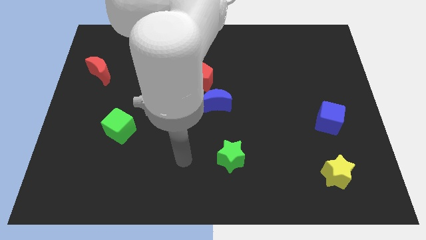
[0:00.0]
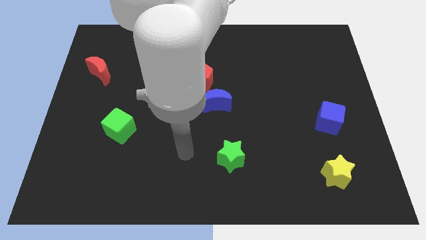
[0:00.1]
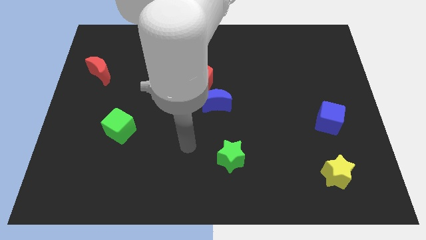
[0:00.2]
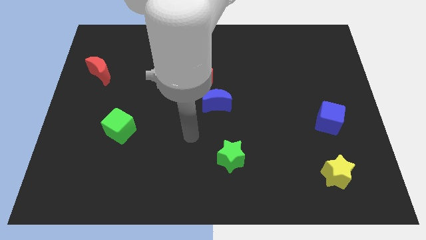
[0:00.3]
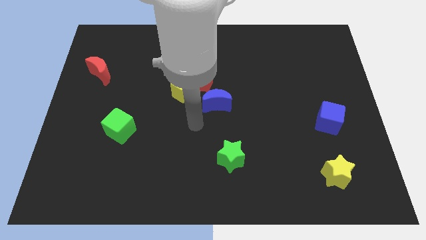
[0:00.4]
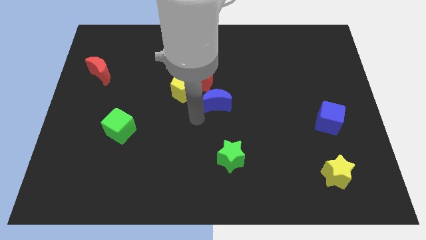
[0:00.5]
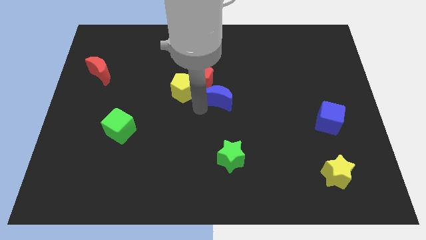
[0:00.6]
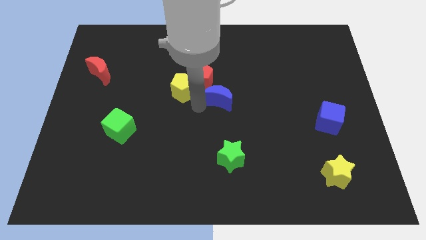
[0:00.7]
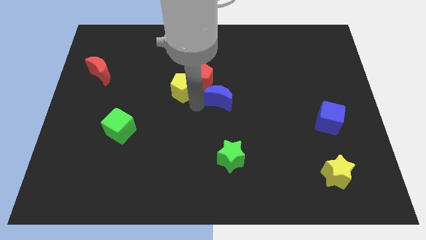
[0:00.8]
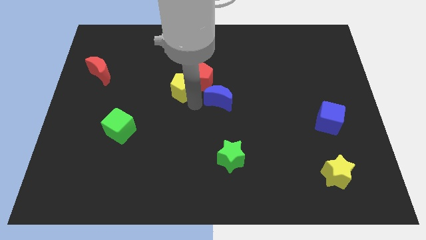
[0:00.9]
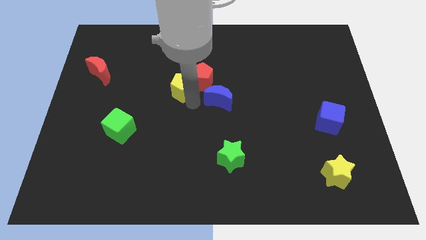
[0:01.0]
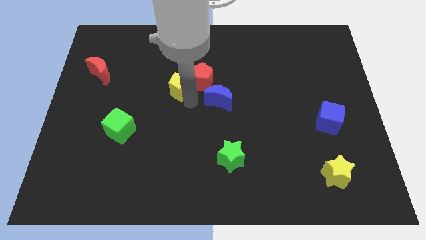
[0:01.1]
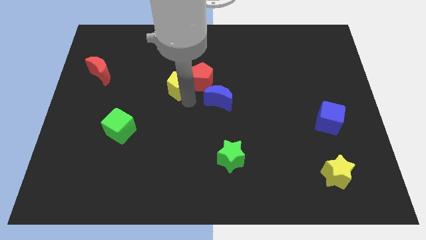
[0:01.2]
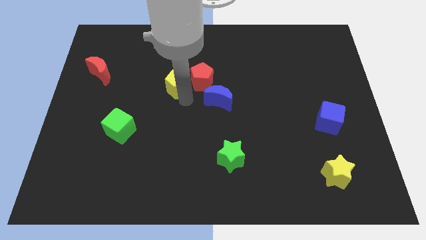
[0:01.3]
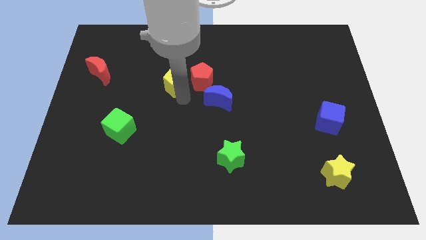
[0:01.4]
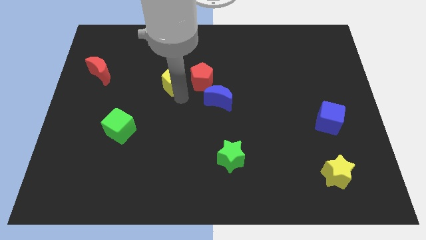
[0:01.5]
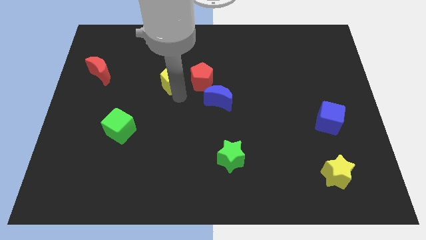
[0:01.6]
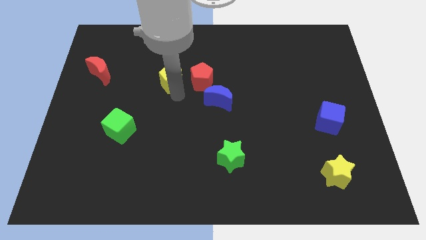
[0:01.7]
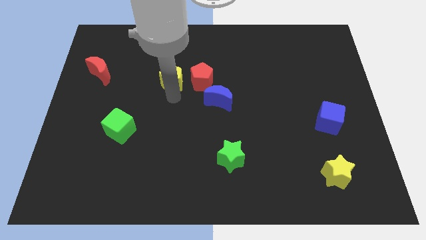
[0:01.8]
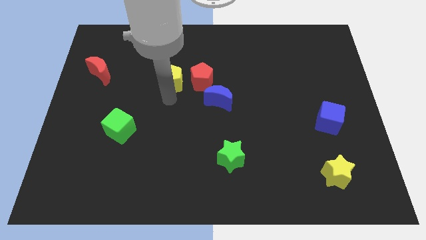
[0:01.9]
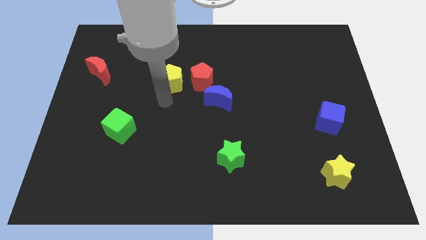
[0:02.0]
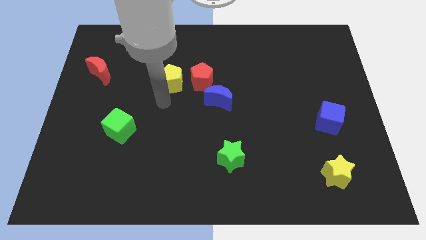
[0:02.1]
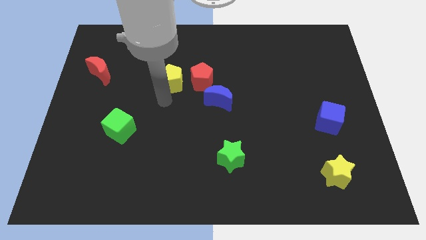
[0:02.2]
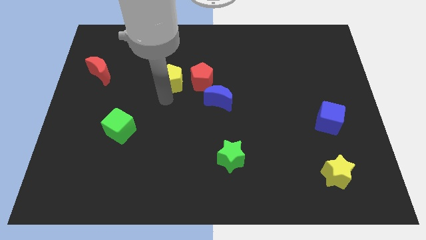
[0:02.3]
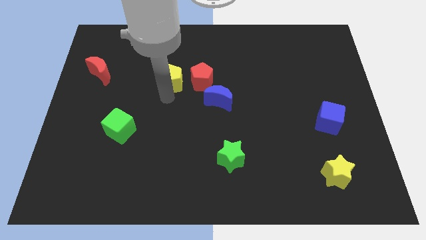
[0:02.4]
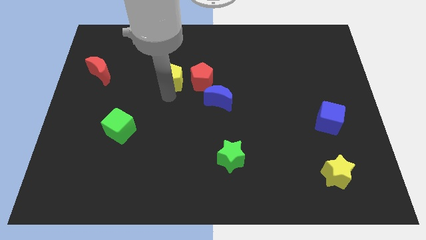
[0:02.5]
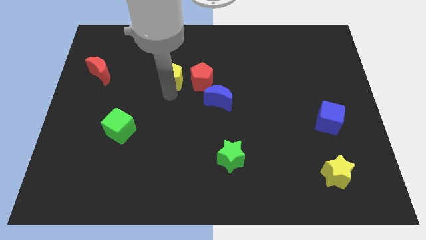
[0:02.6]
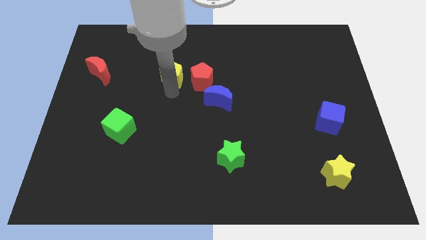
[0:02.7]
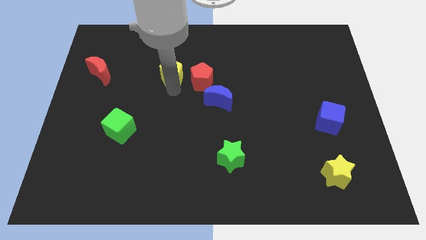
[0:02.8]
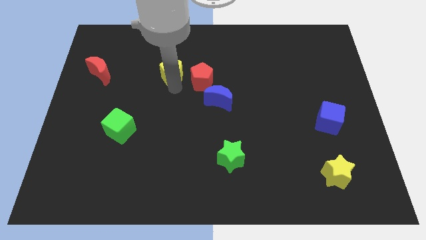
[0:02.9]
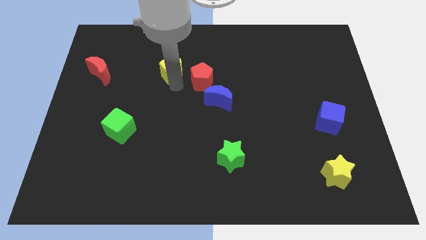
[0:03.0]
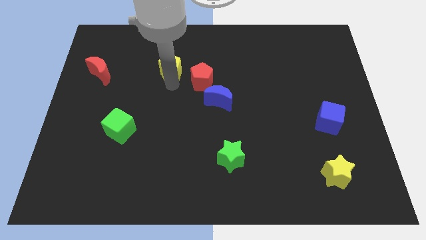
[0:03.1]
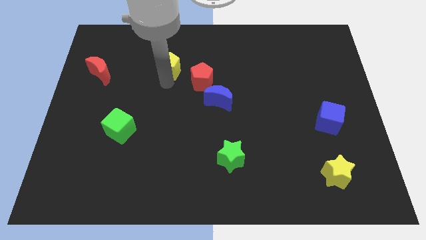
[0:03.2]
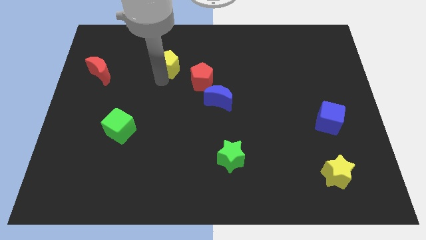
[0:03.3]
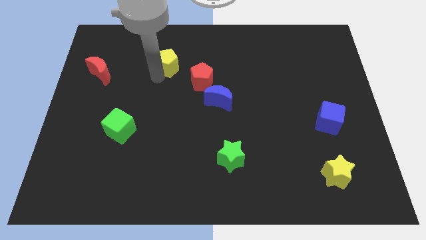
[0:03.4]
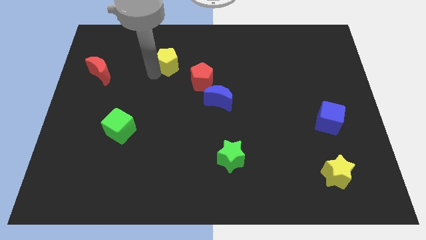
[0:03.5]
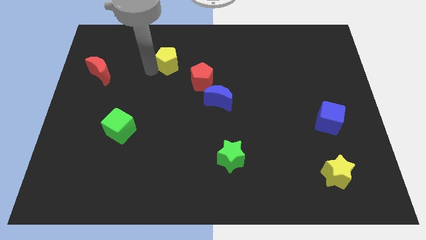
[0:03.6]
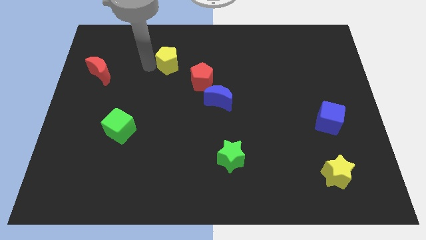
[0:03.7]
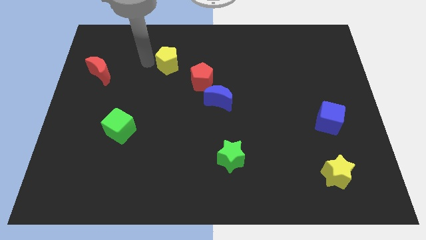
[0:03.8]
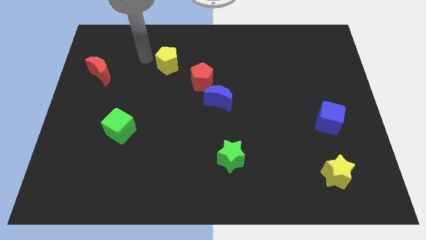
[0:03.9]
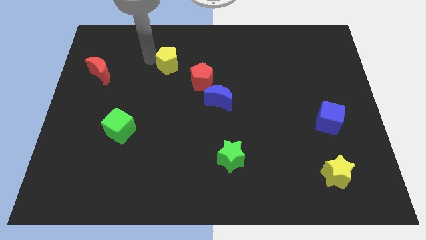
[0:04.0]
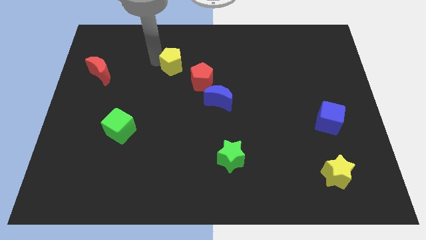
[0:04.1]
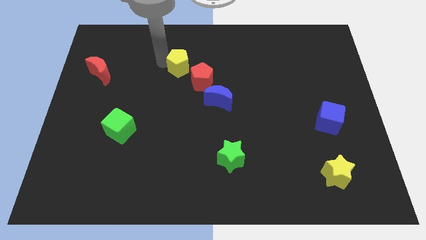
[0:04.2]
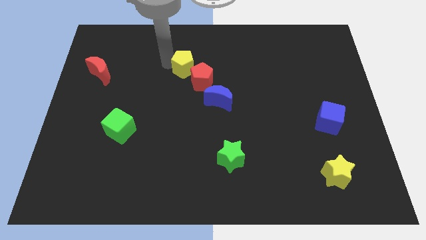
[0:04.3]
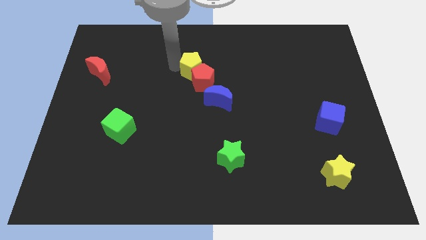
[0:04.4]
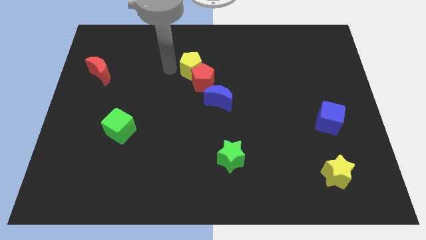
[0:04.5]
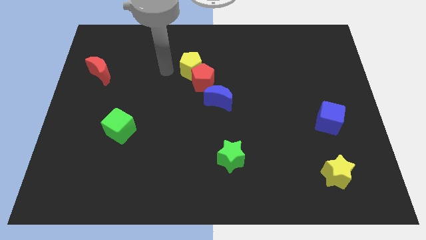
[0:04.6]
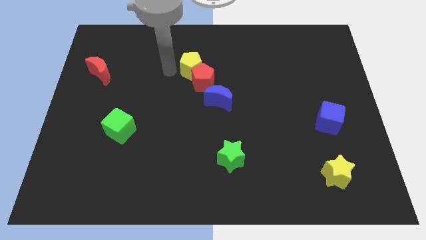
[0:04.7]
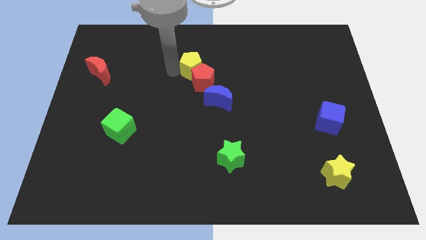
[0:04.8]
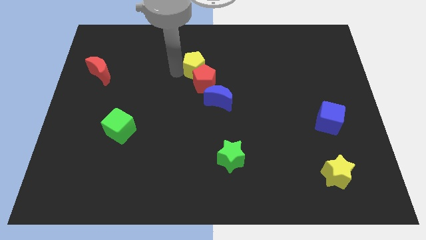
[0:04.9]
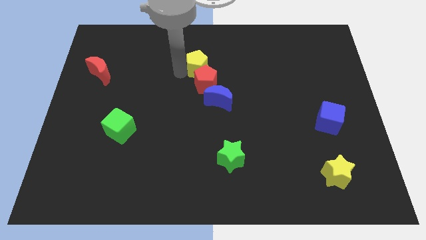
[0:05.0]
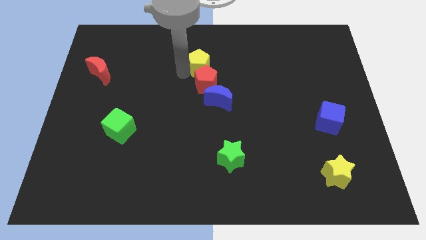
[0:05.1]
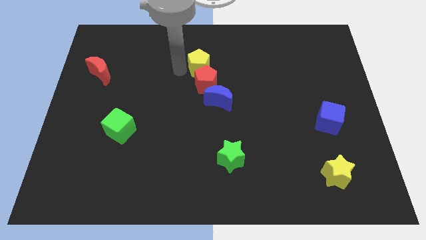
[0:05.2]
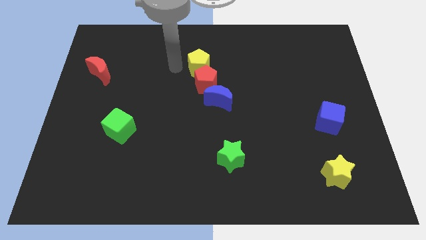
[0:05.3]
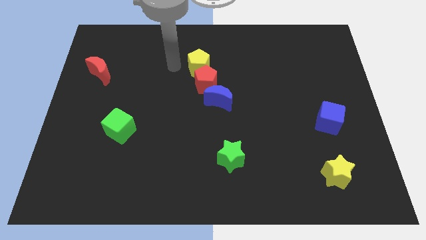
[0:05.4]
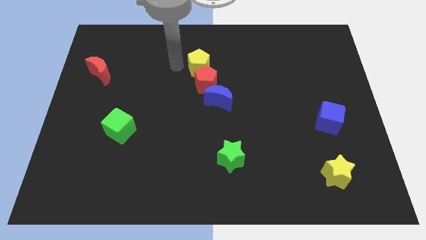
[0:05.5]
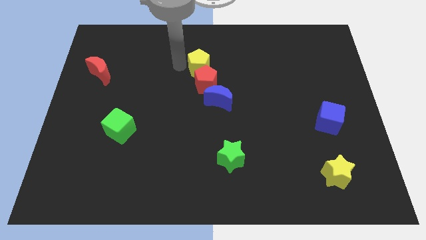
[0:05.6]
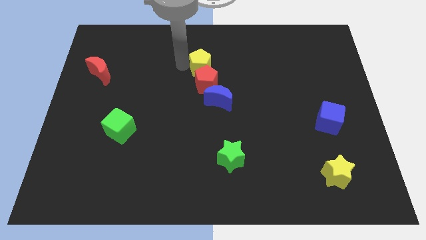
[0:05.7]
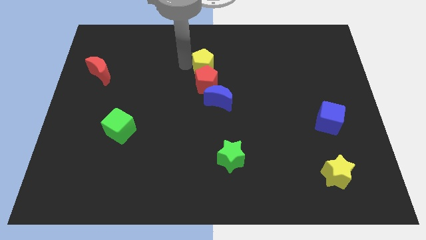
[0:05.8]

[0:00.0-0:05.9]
put the yellow pentagon to the top right side of the red pentagon
